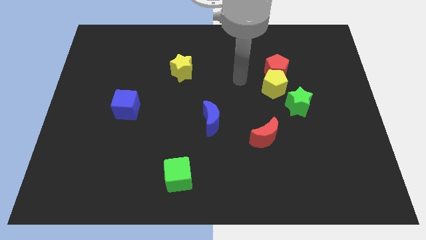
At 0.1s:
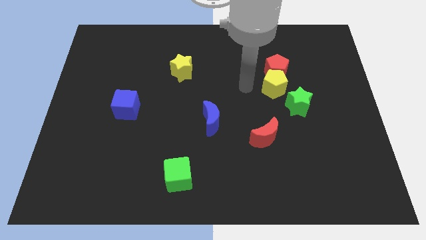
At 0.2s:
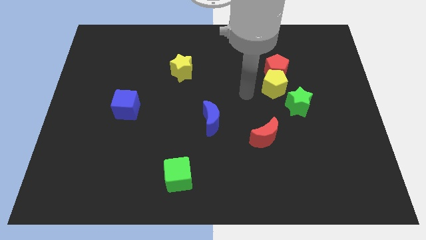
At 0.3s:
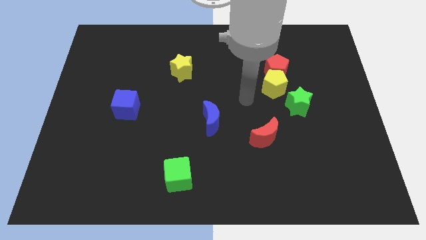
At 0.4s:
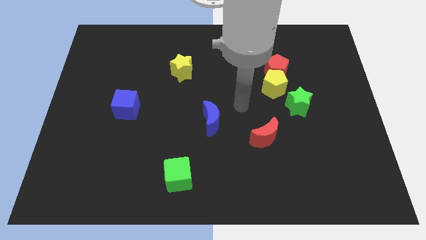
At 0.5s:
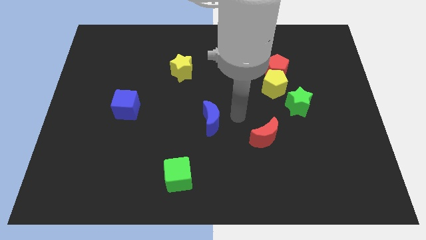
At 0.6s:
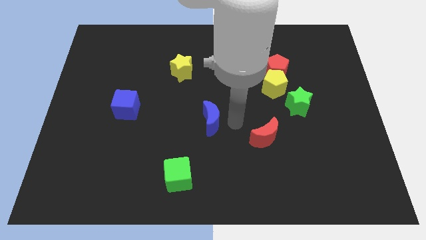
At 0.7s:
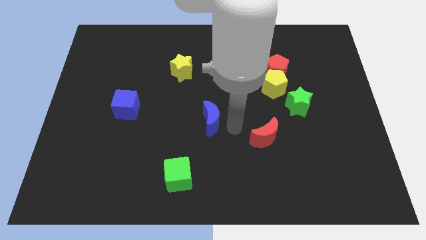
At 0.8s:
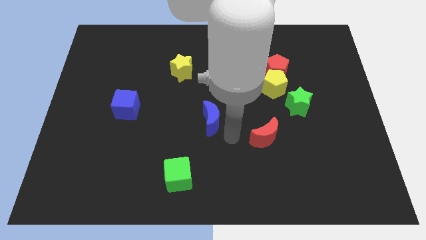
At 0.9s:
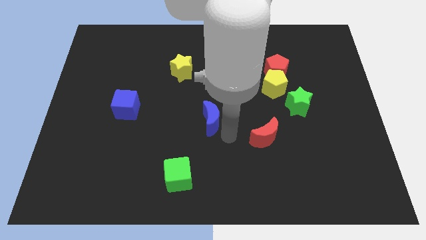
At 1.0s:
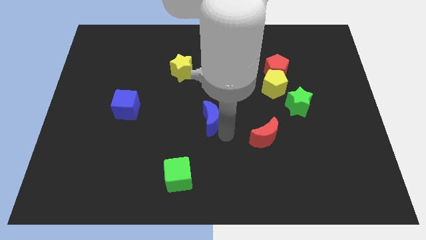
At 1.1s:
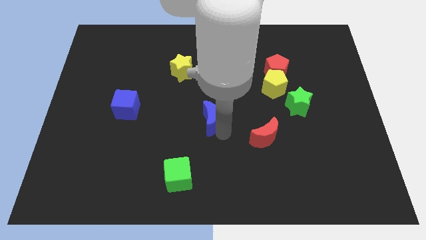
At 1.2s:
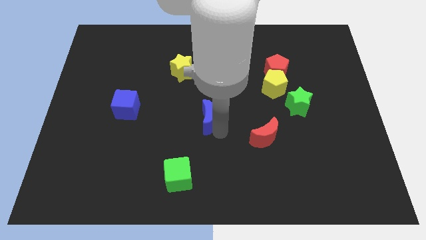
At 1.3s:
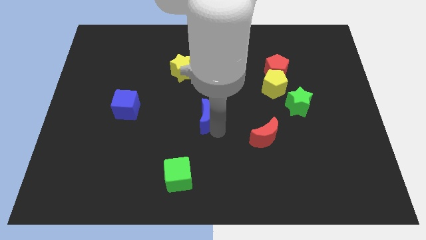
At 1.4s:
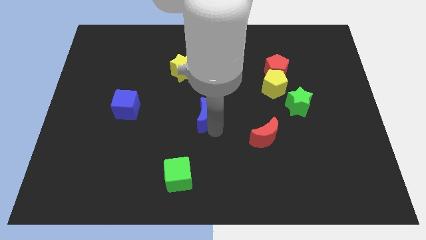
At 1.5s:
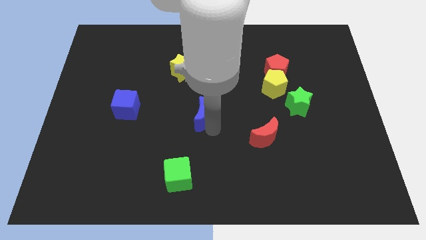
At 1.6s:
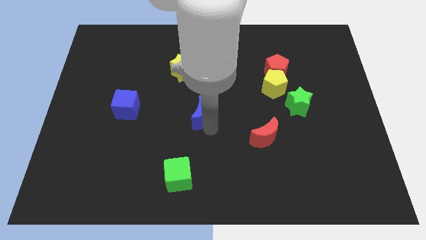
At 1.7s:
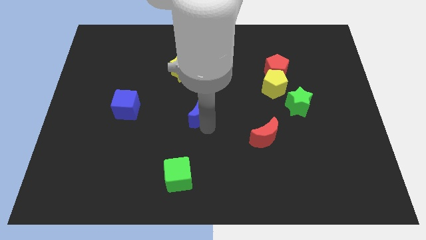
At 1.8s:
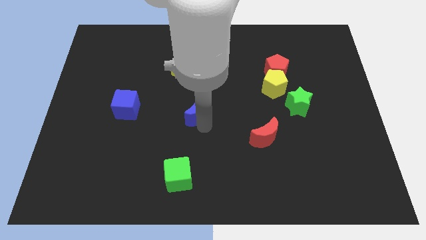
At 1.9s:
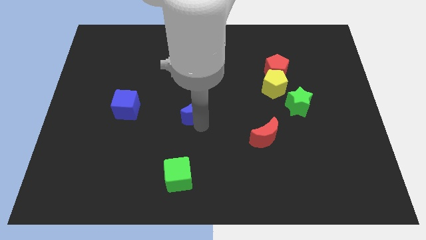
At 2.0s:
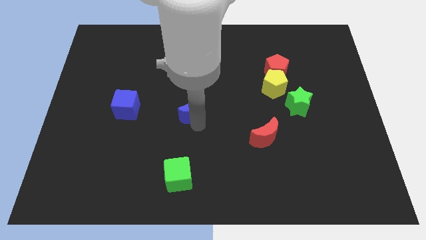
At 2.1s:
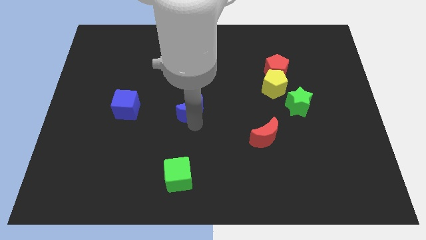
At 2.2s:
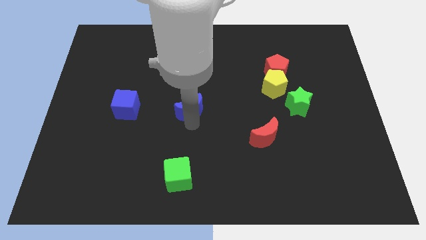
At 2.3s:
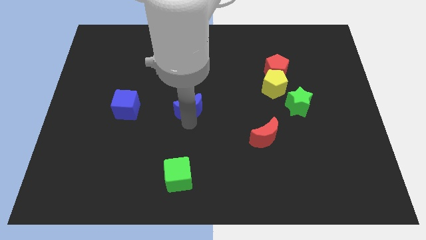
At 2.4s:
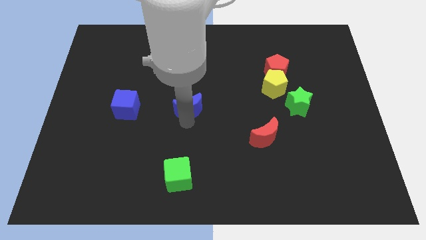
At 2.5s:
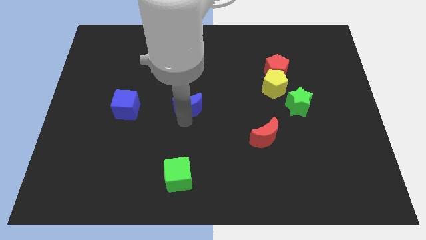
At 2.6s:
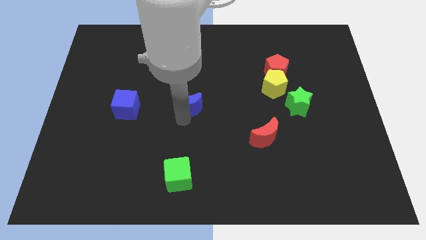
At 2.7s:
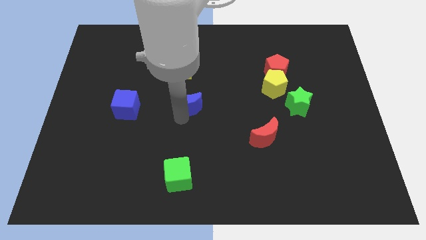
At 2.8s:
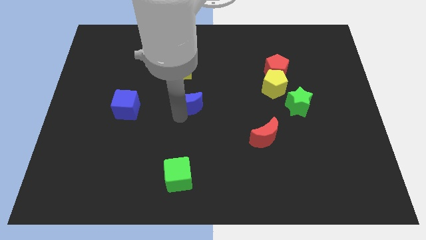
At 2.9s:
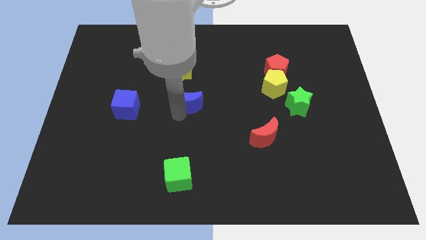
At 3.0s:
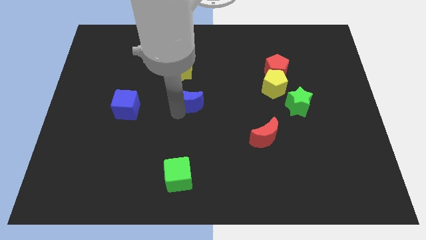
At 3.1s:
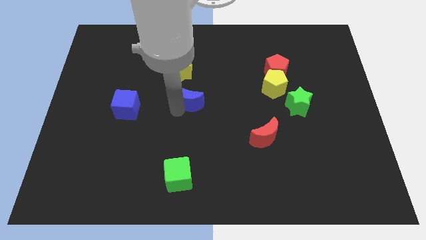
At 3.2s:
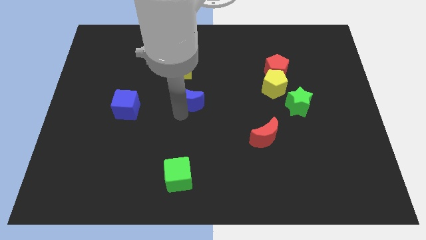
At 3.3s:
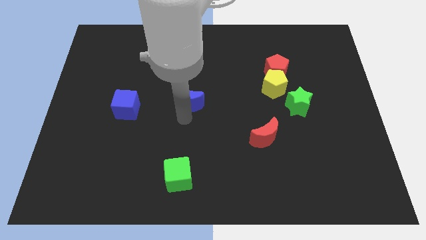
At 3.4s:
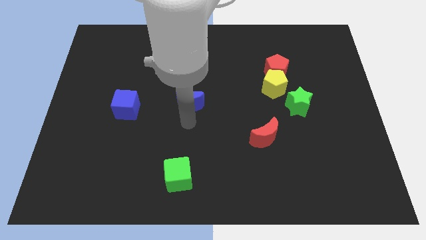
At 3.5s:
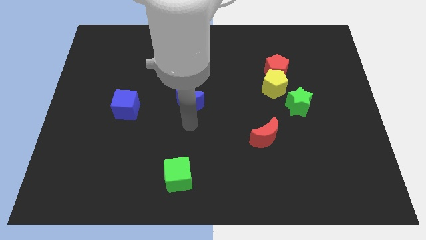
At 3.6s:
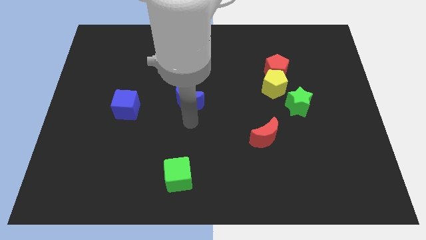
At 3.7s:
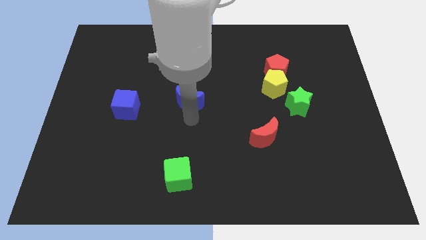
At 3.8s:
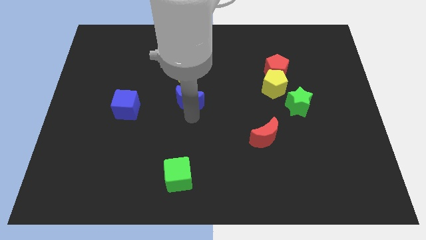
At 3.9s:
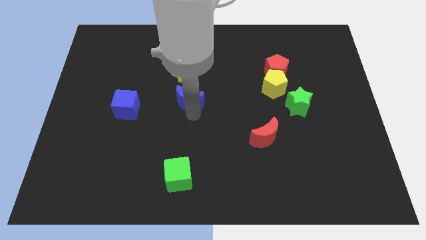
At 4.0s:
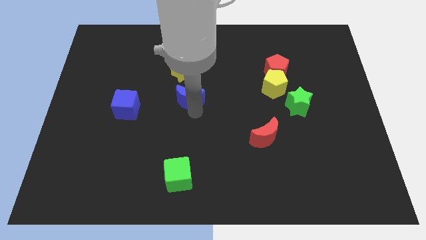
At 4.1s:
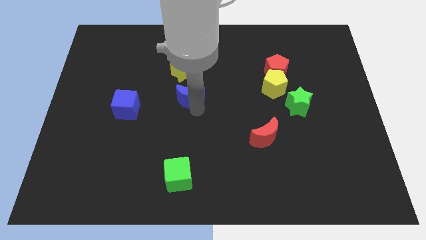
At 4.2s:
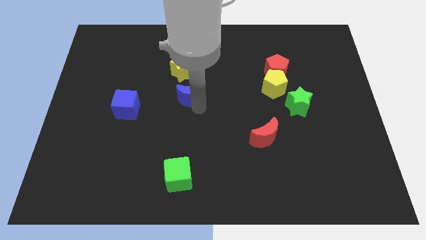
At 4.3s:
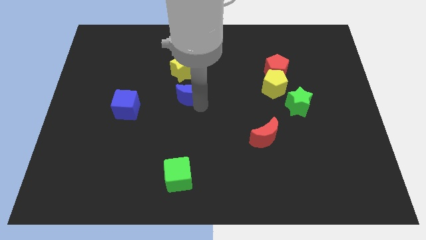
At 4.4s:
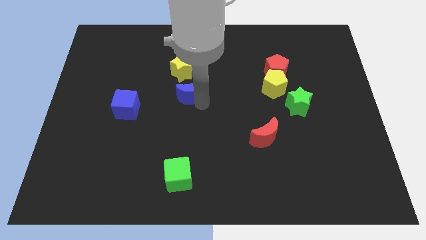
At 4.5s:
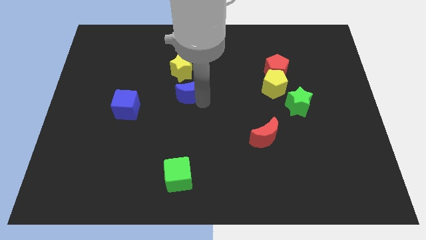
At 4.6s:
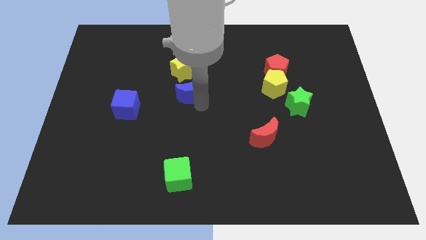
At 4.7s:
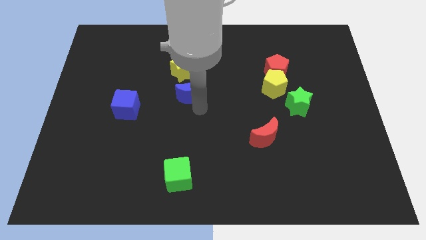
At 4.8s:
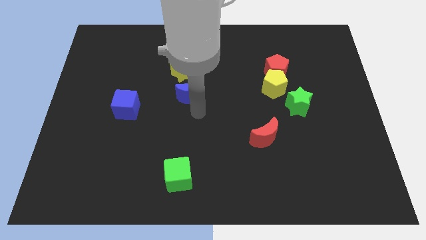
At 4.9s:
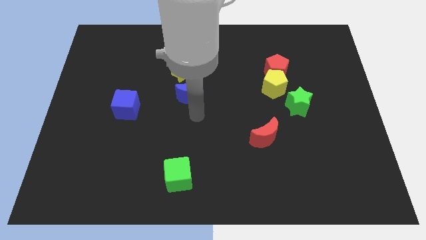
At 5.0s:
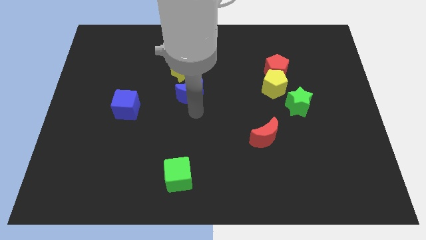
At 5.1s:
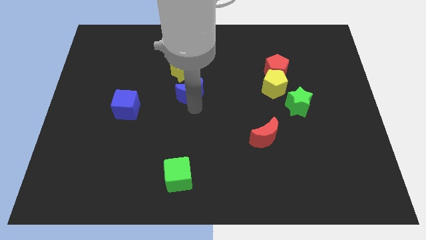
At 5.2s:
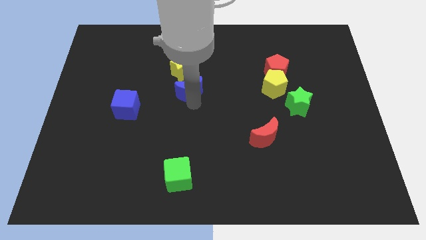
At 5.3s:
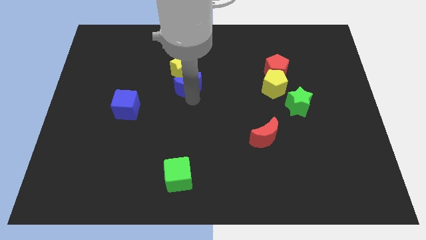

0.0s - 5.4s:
slide the blue moon close to the yellow star

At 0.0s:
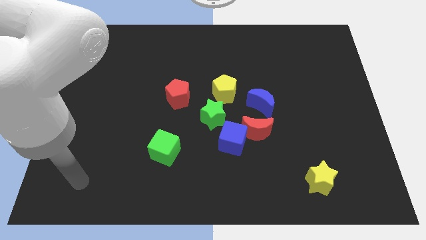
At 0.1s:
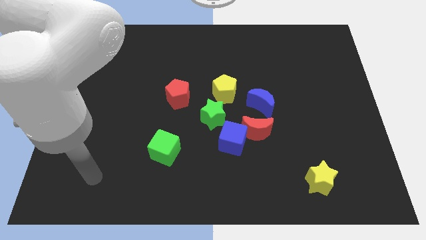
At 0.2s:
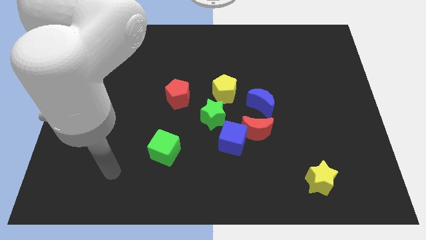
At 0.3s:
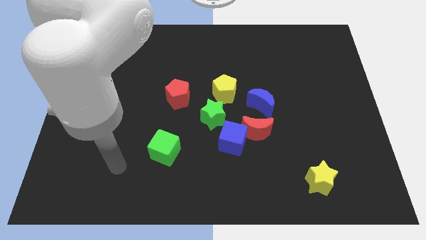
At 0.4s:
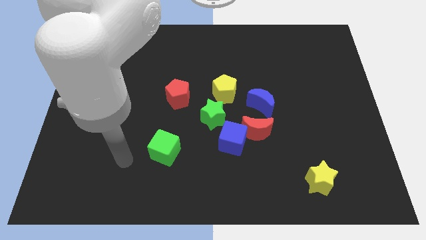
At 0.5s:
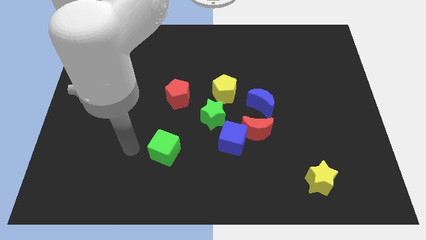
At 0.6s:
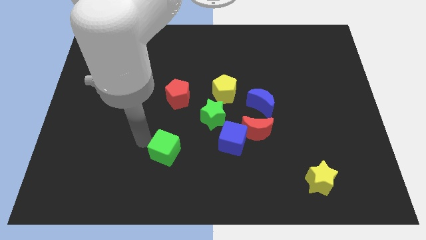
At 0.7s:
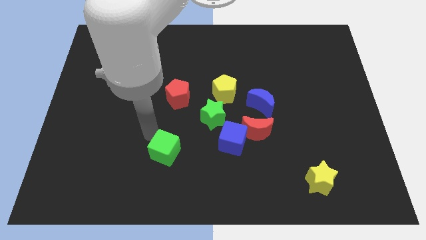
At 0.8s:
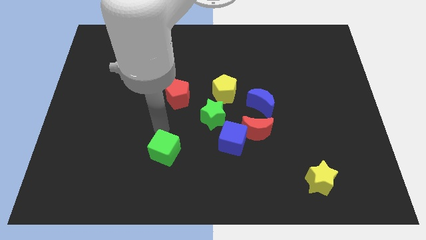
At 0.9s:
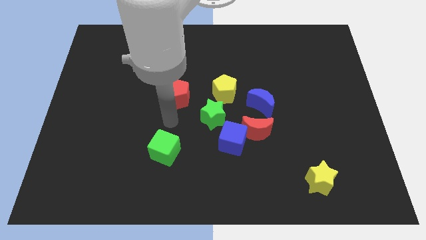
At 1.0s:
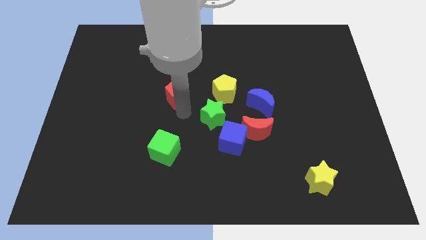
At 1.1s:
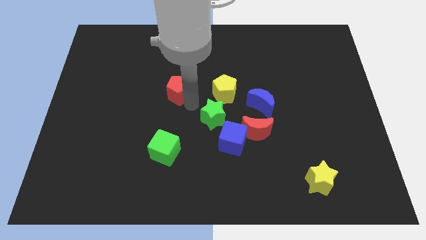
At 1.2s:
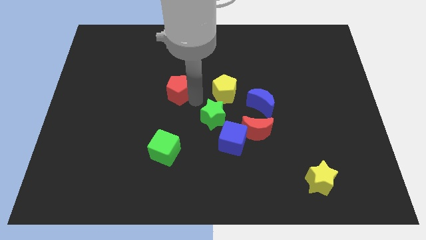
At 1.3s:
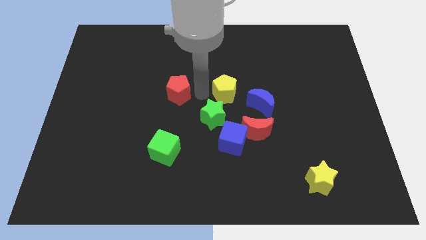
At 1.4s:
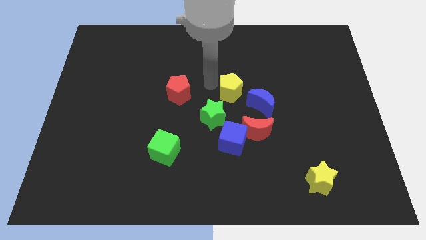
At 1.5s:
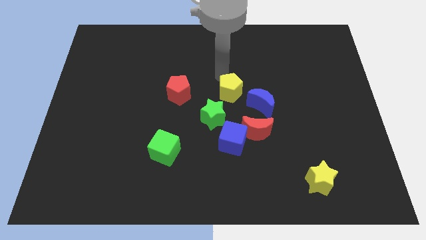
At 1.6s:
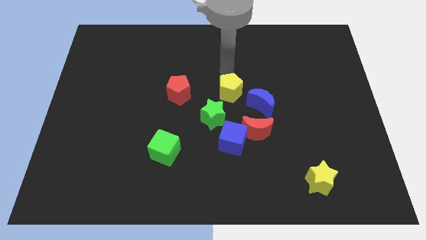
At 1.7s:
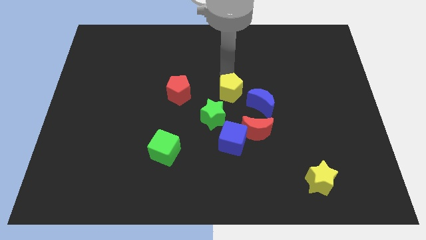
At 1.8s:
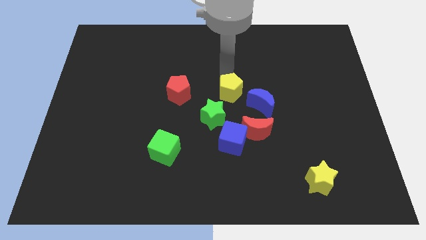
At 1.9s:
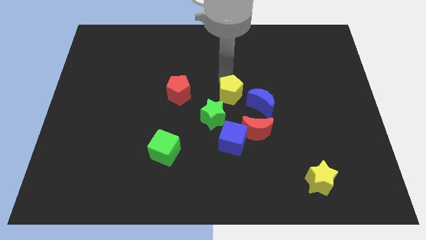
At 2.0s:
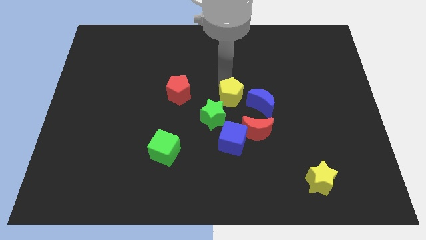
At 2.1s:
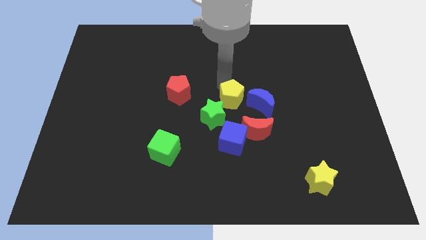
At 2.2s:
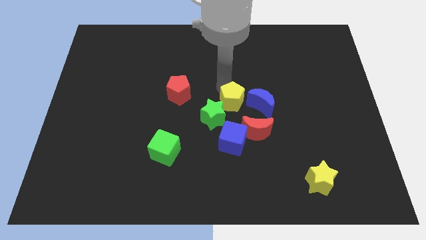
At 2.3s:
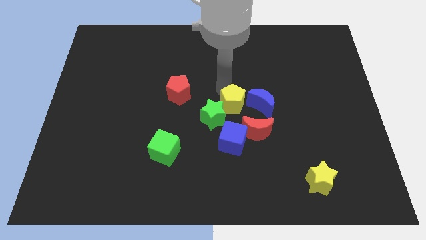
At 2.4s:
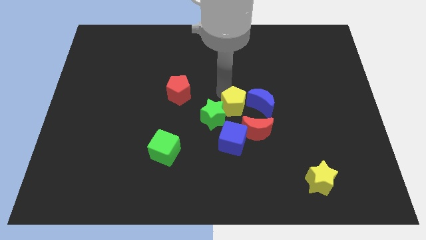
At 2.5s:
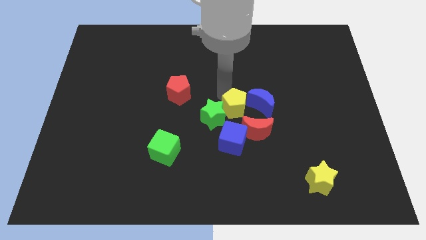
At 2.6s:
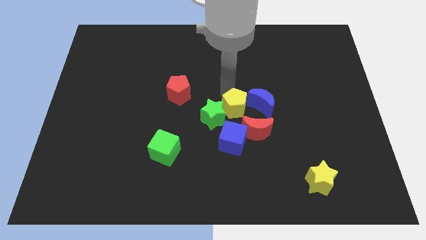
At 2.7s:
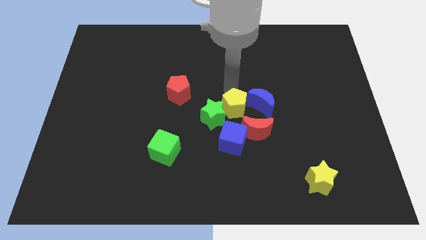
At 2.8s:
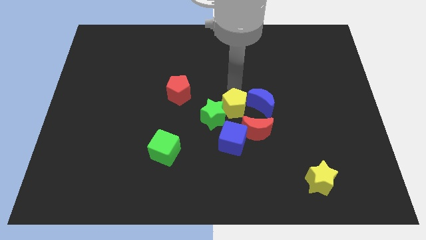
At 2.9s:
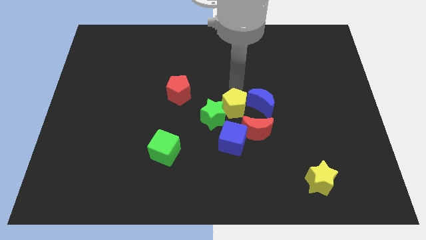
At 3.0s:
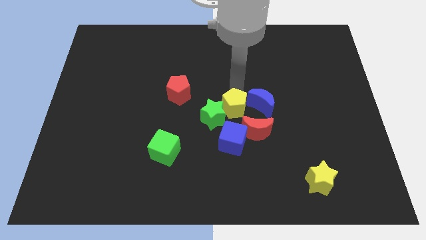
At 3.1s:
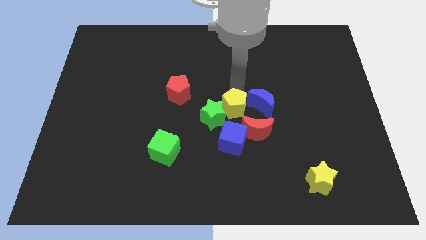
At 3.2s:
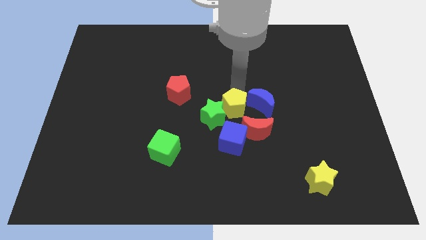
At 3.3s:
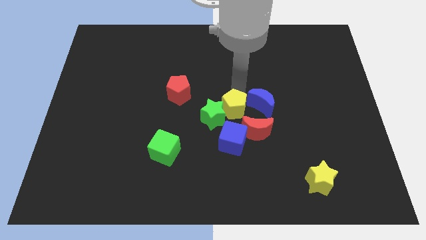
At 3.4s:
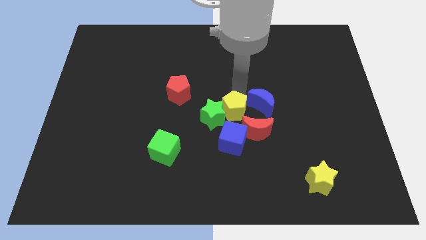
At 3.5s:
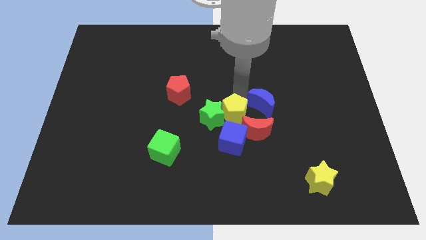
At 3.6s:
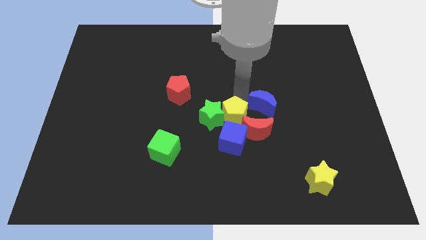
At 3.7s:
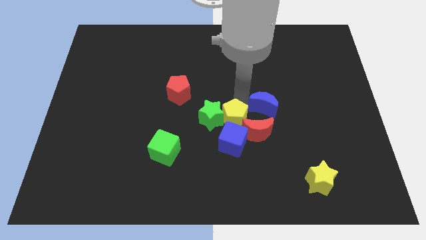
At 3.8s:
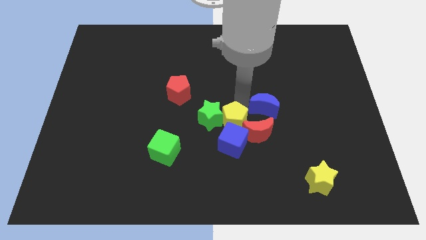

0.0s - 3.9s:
put the yellow pentagon to the blue cube
